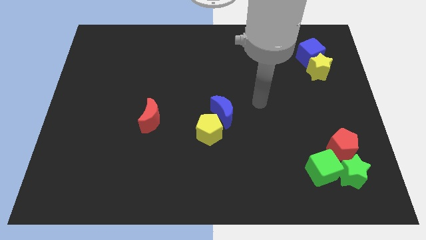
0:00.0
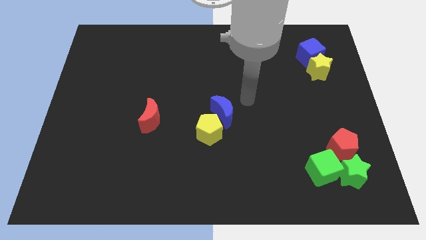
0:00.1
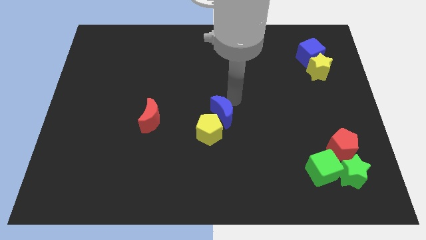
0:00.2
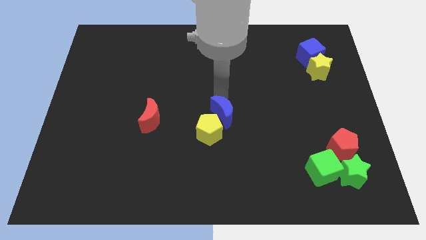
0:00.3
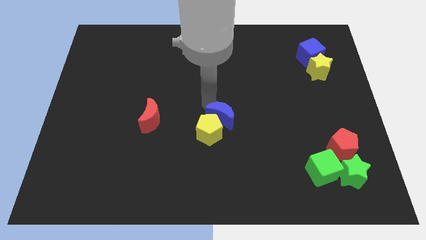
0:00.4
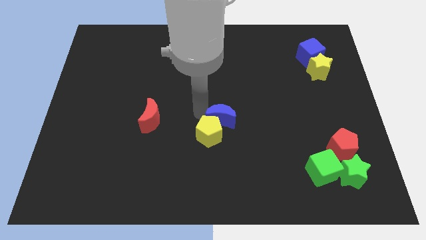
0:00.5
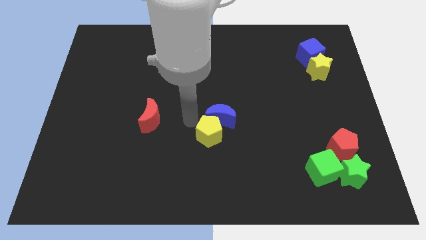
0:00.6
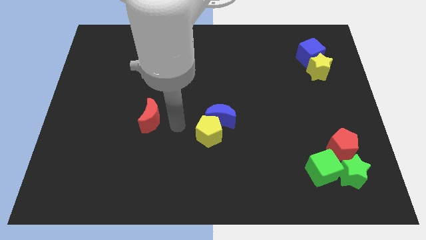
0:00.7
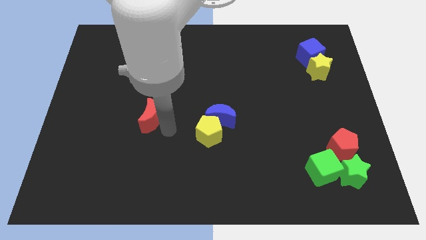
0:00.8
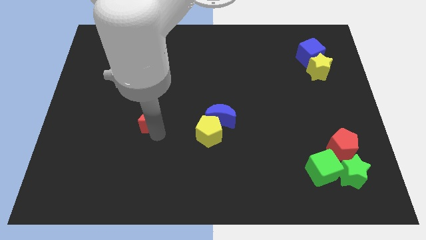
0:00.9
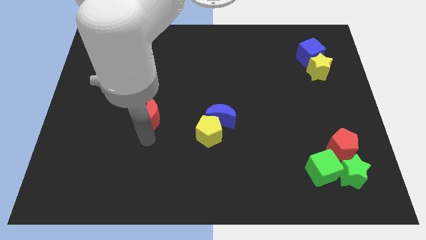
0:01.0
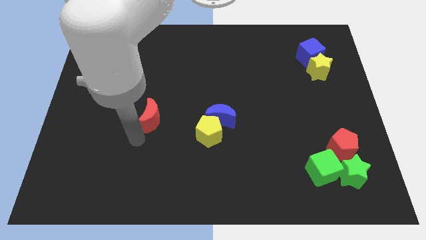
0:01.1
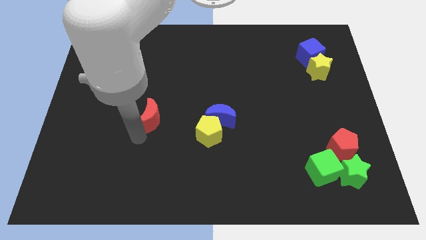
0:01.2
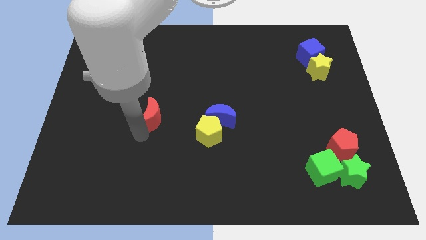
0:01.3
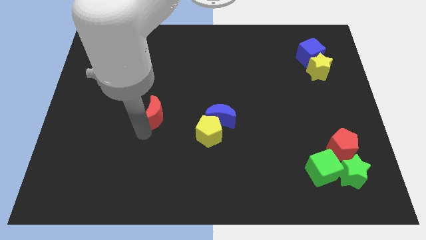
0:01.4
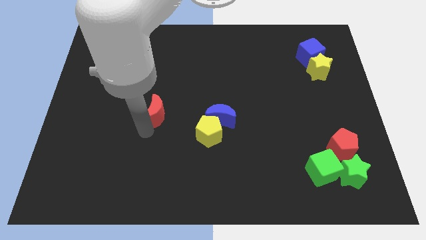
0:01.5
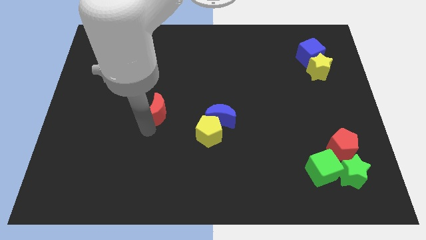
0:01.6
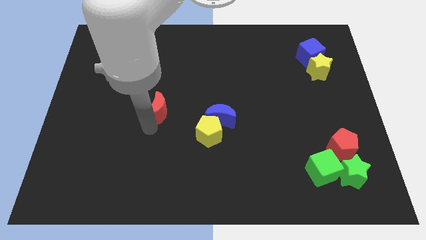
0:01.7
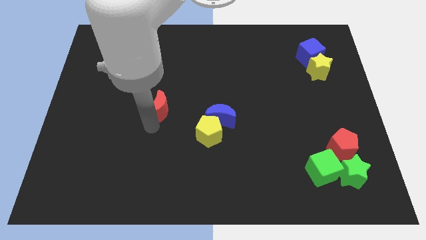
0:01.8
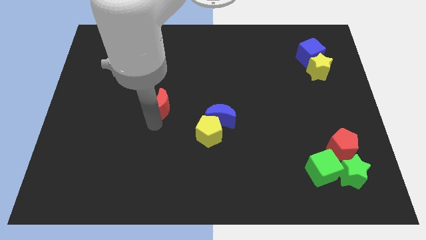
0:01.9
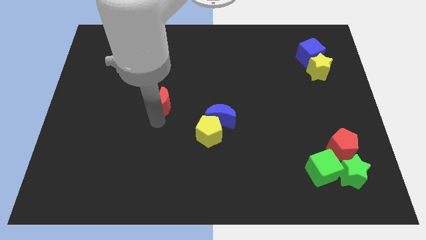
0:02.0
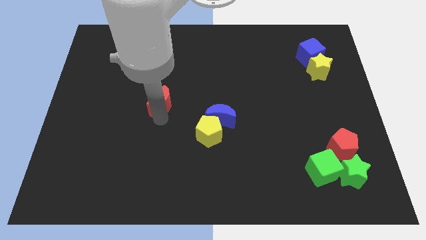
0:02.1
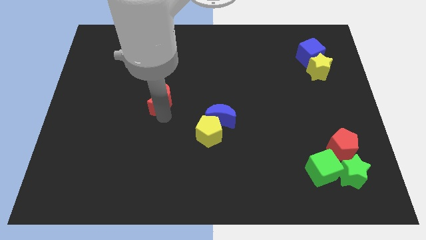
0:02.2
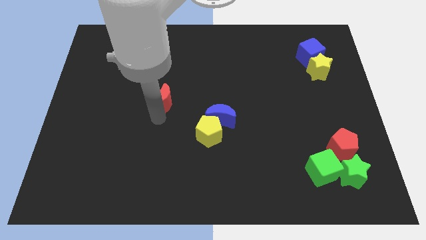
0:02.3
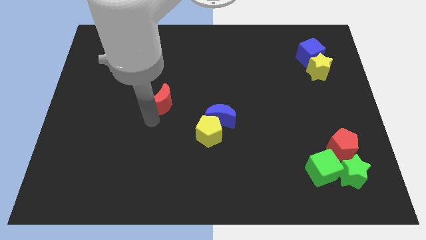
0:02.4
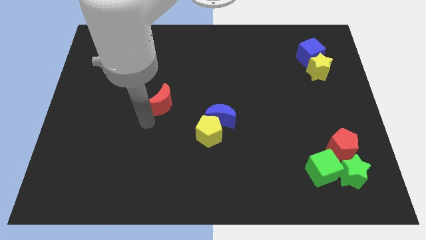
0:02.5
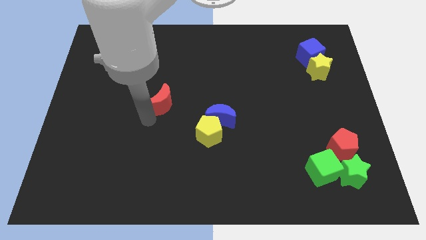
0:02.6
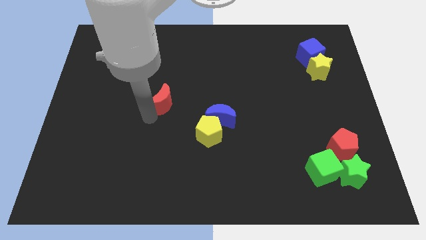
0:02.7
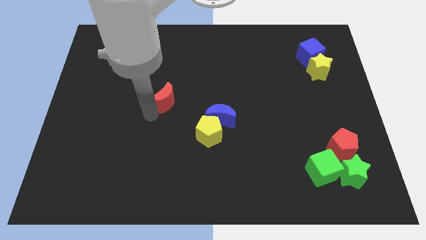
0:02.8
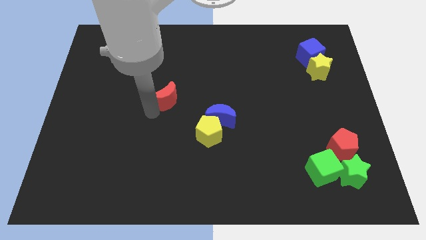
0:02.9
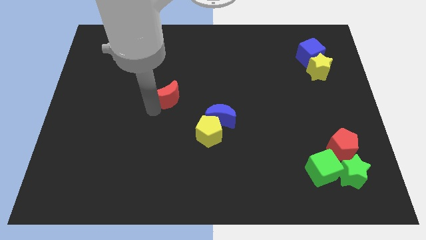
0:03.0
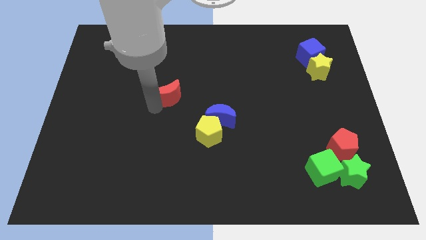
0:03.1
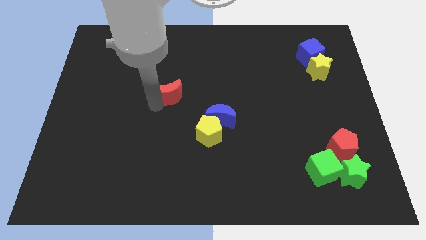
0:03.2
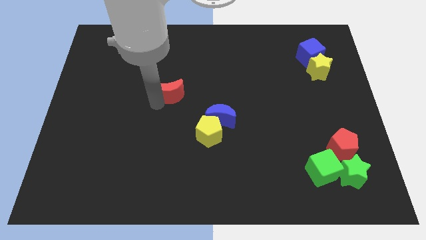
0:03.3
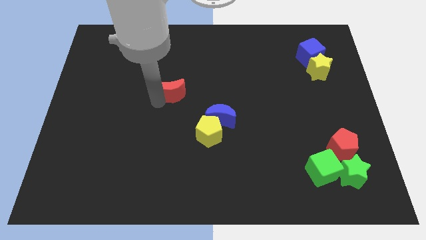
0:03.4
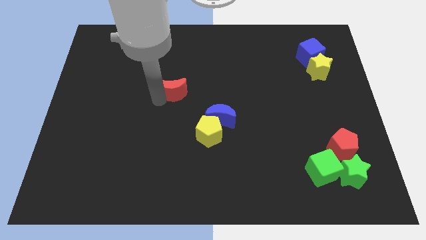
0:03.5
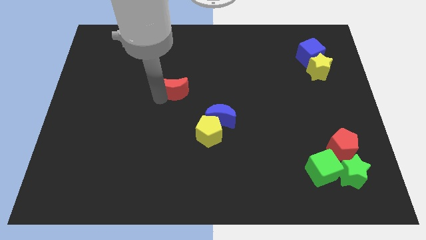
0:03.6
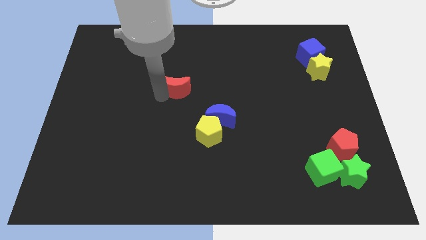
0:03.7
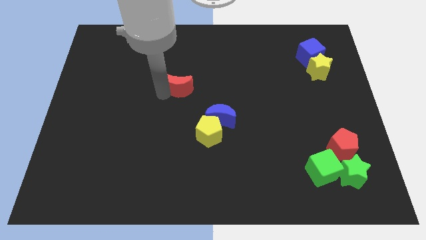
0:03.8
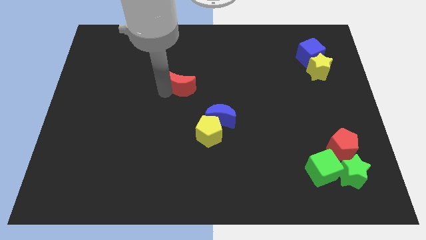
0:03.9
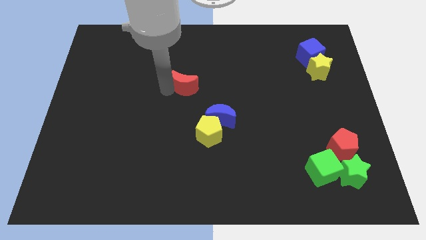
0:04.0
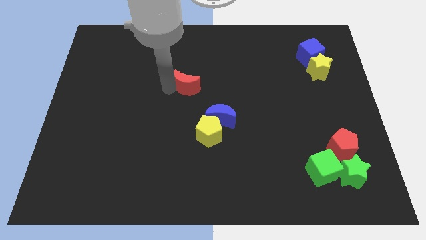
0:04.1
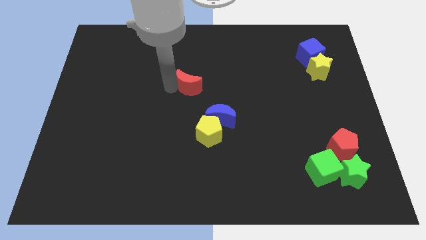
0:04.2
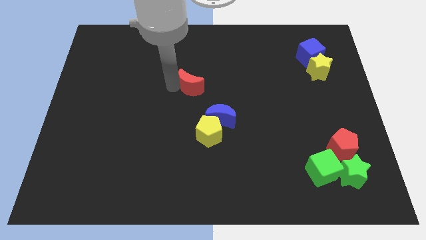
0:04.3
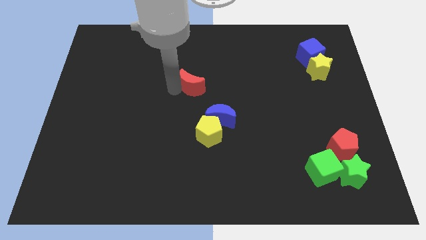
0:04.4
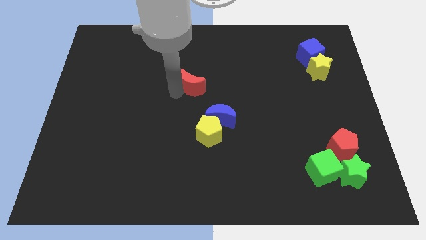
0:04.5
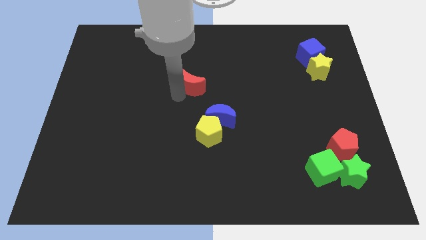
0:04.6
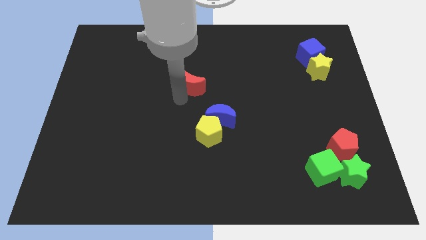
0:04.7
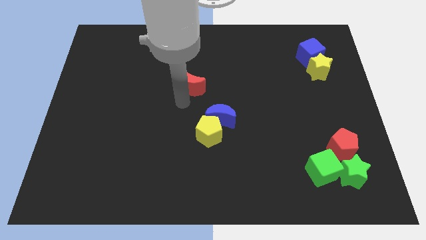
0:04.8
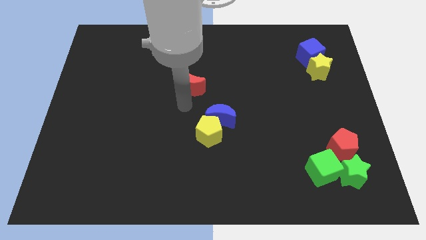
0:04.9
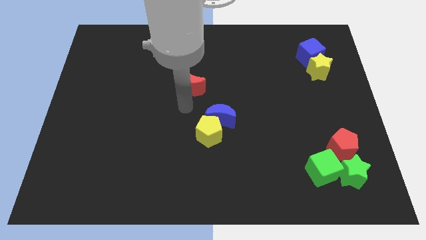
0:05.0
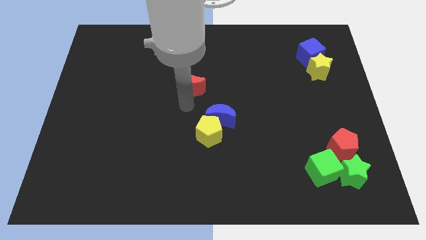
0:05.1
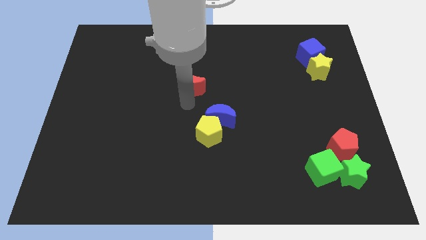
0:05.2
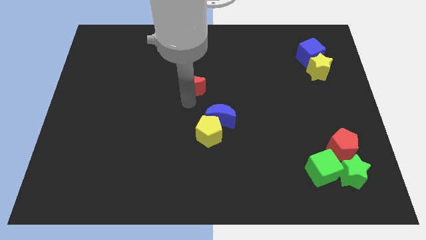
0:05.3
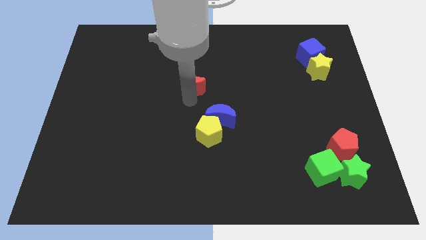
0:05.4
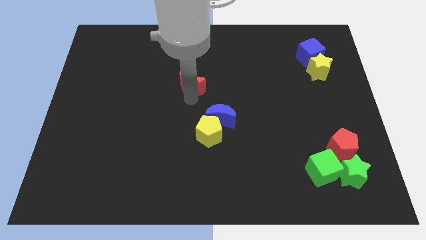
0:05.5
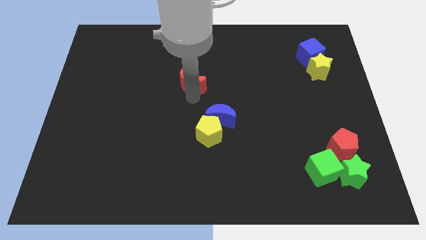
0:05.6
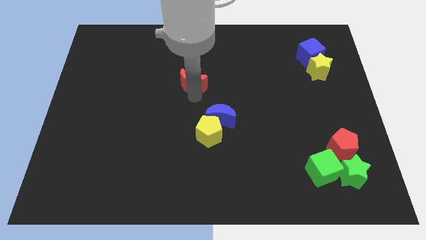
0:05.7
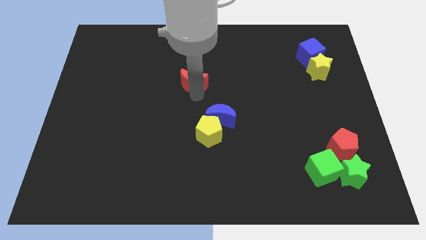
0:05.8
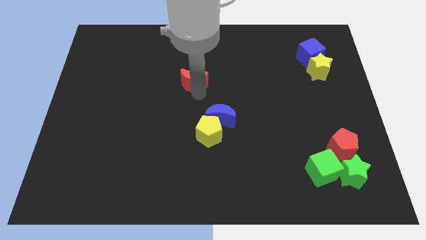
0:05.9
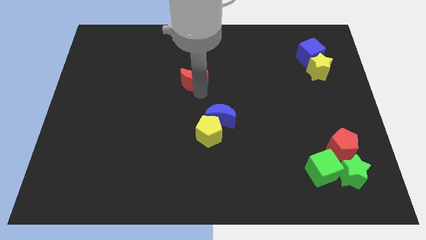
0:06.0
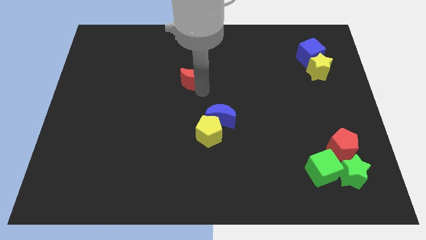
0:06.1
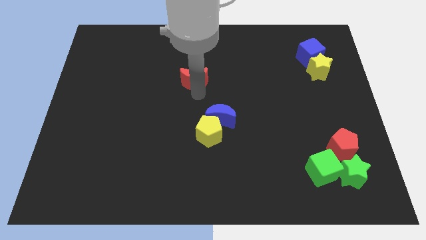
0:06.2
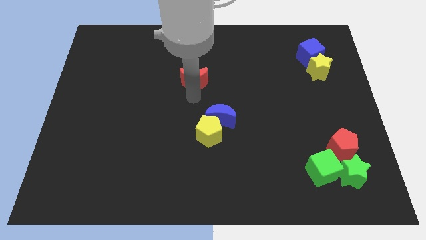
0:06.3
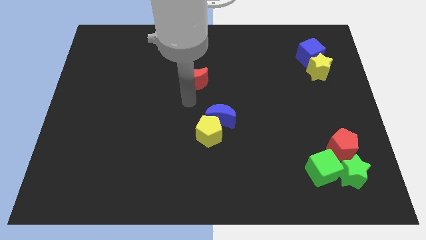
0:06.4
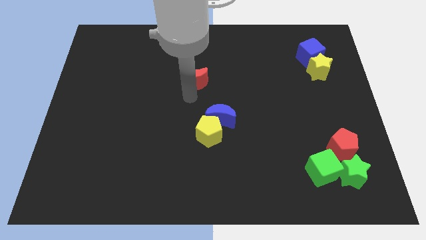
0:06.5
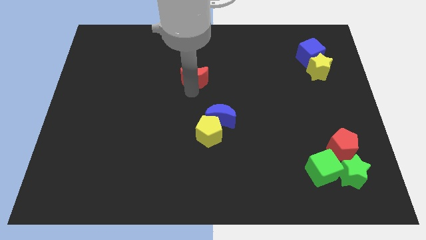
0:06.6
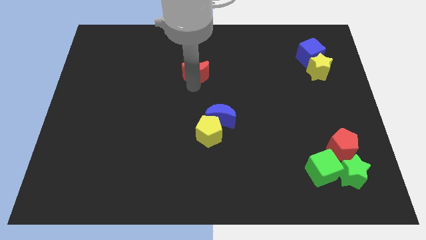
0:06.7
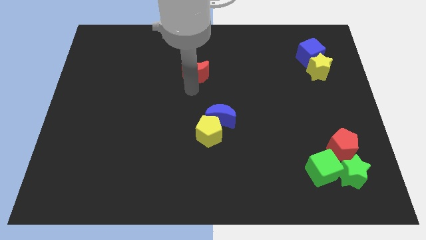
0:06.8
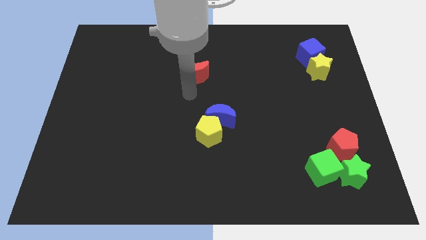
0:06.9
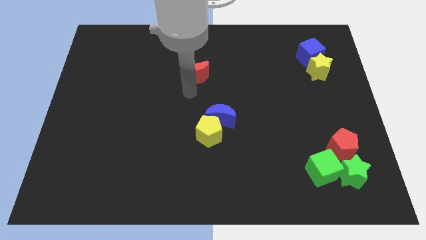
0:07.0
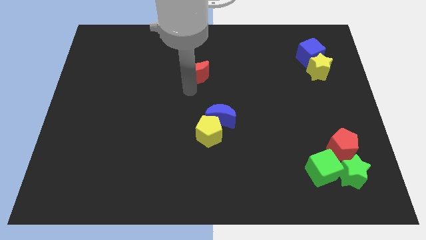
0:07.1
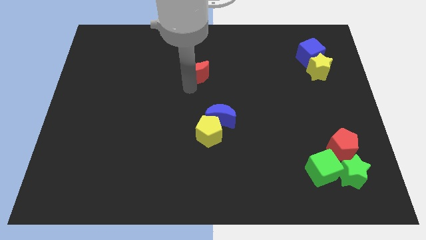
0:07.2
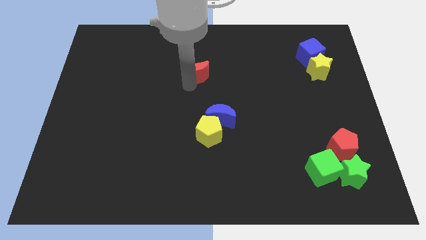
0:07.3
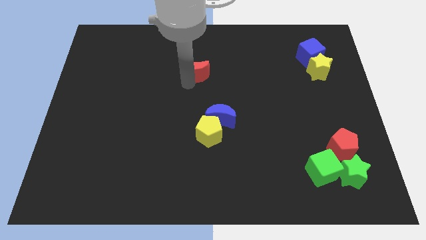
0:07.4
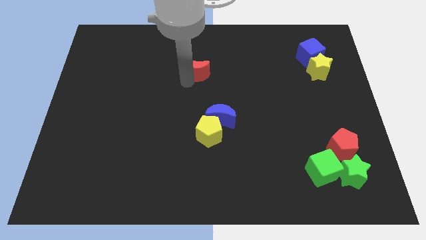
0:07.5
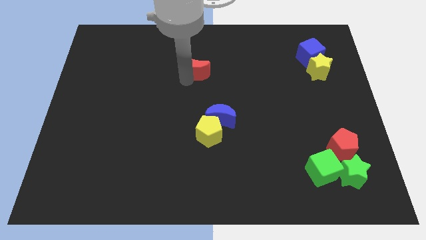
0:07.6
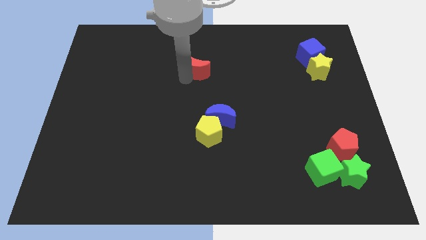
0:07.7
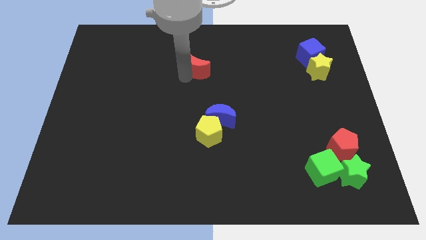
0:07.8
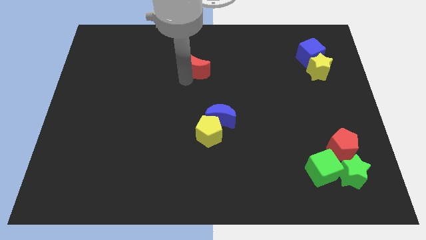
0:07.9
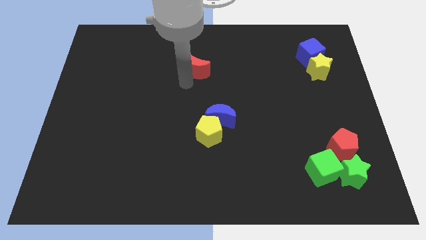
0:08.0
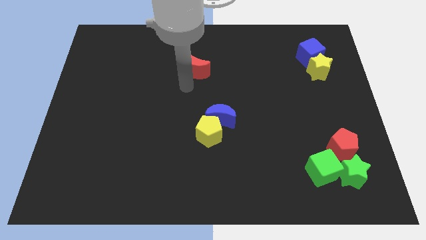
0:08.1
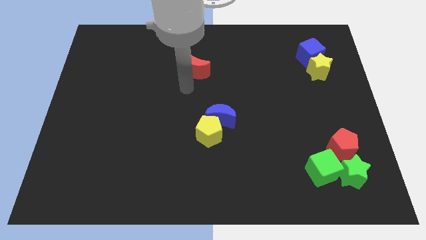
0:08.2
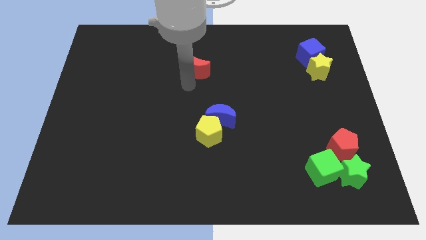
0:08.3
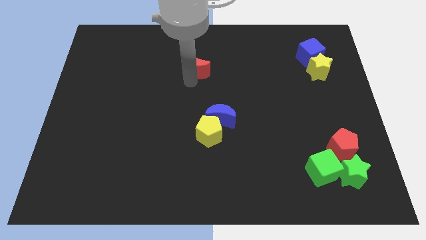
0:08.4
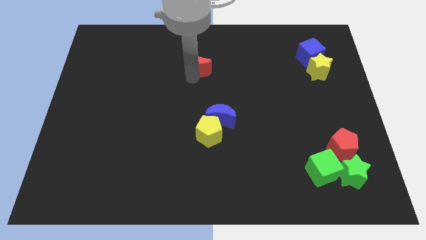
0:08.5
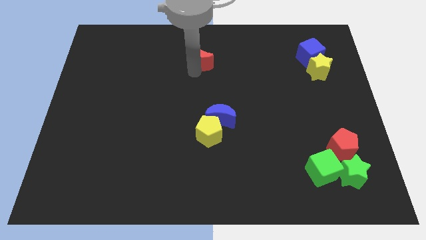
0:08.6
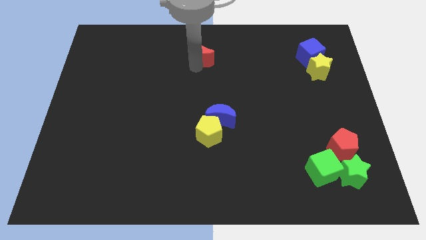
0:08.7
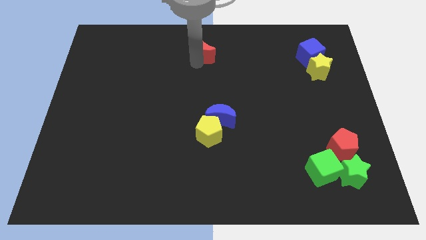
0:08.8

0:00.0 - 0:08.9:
move the red moon to the top
